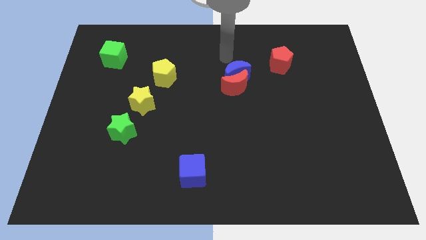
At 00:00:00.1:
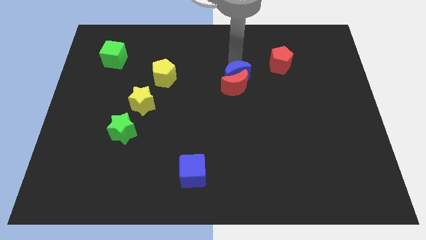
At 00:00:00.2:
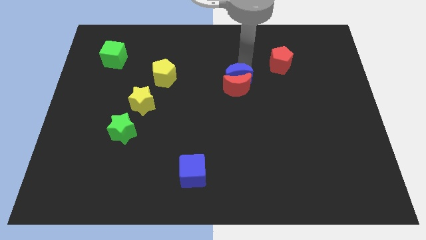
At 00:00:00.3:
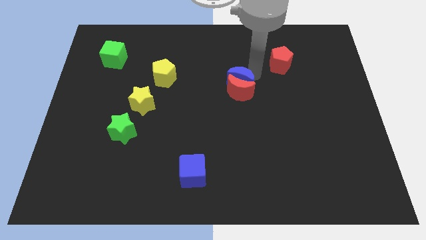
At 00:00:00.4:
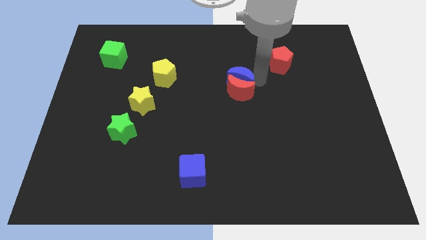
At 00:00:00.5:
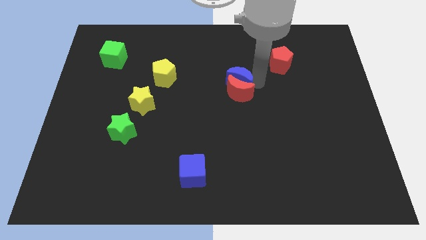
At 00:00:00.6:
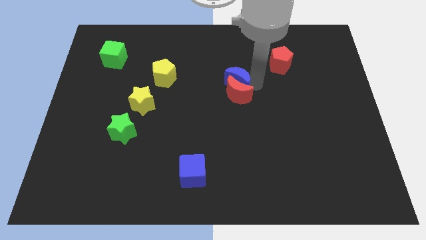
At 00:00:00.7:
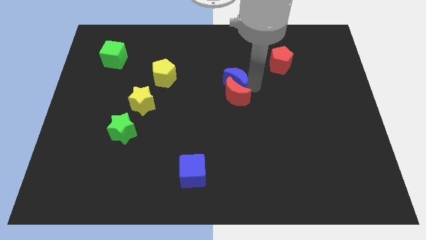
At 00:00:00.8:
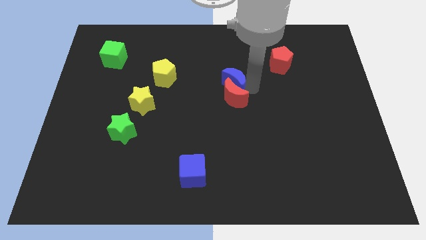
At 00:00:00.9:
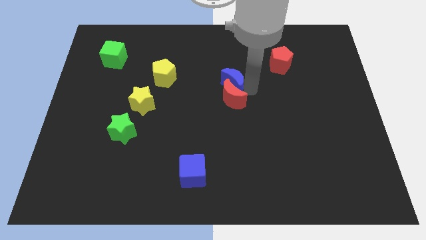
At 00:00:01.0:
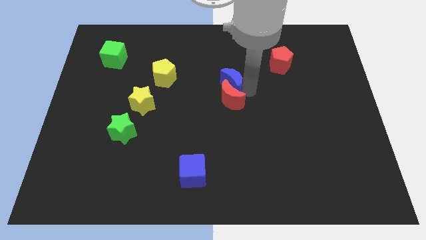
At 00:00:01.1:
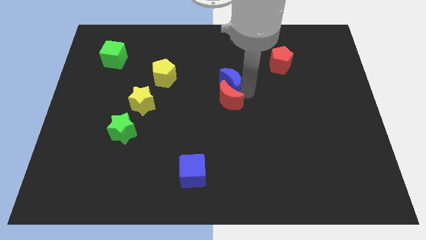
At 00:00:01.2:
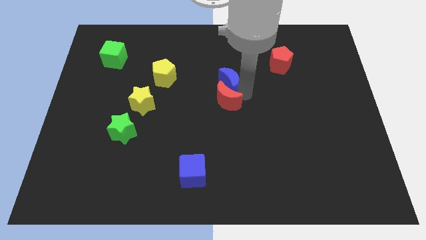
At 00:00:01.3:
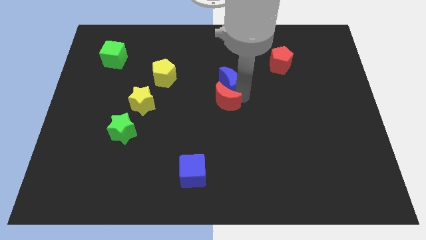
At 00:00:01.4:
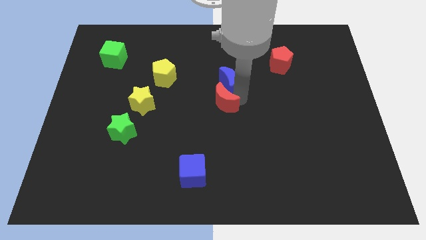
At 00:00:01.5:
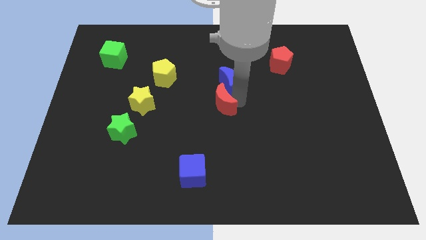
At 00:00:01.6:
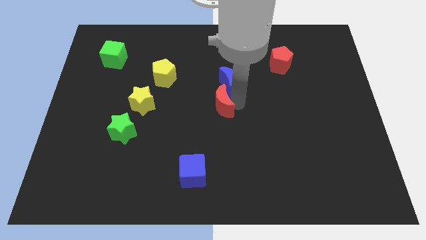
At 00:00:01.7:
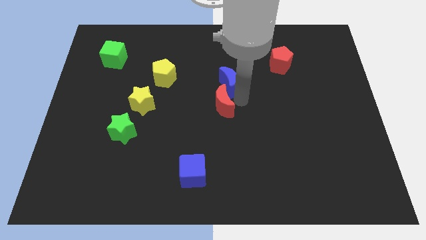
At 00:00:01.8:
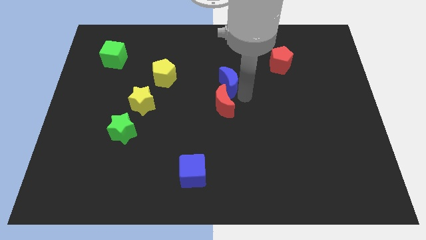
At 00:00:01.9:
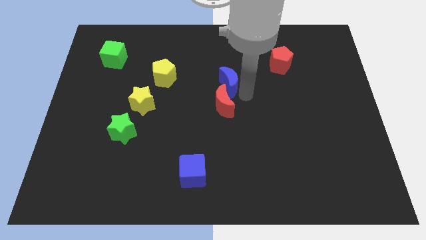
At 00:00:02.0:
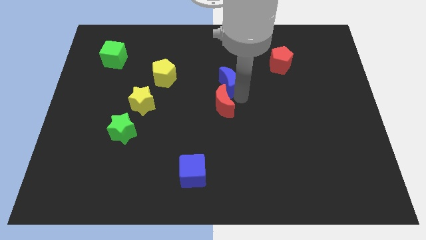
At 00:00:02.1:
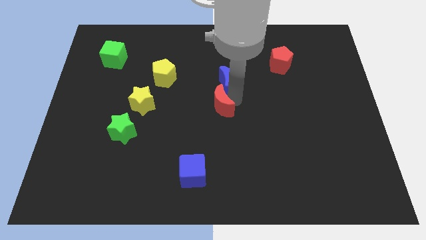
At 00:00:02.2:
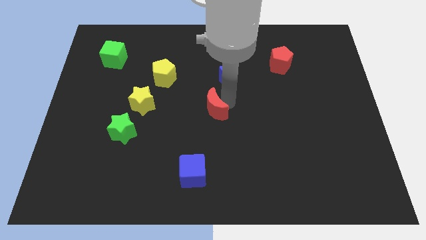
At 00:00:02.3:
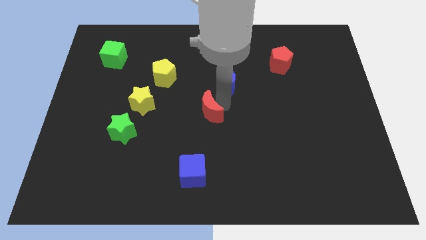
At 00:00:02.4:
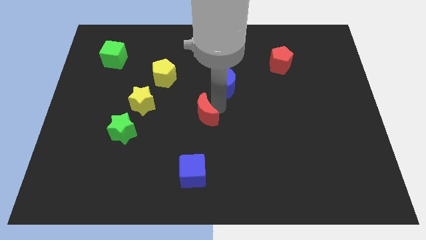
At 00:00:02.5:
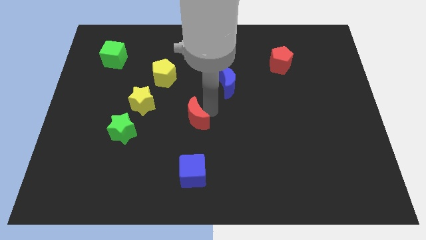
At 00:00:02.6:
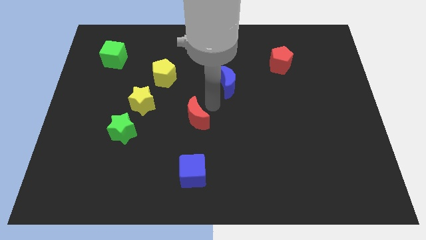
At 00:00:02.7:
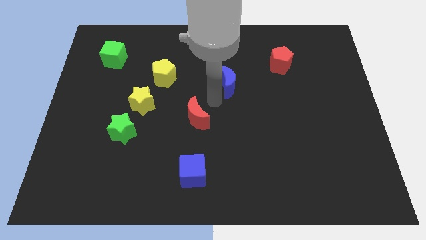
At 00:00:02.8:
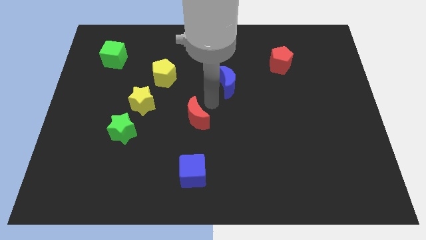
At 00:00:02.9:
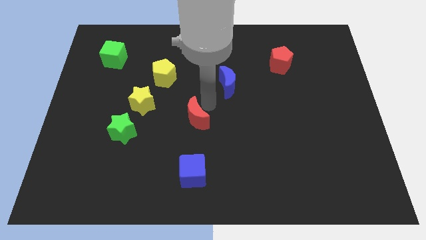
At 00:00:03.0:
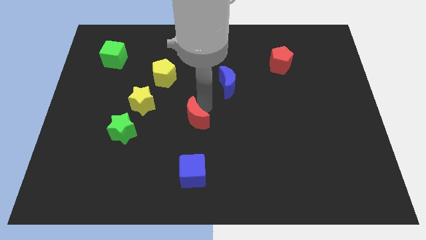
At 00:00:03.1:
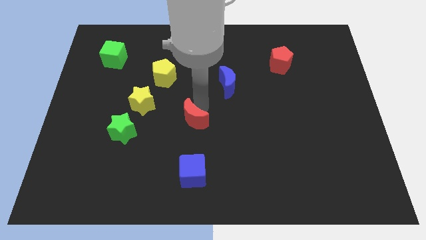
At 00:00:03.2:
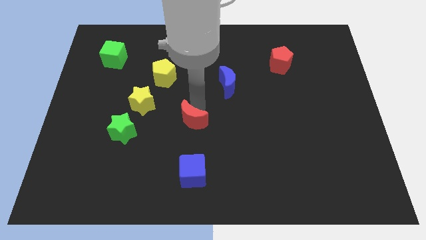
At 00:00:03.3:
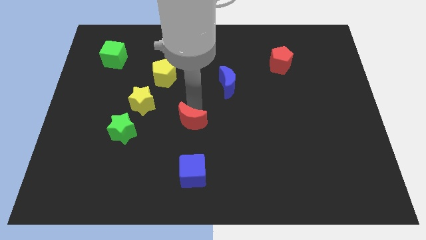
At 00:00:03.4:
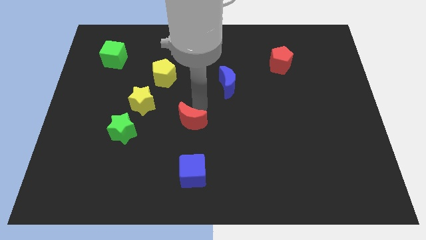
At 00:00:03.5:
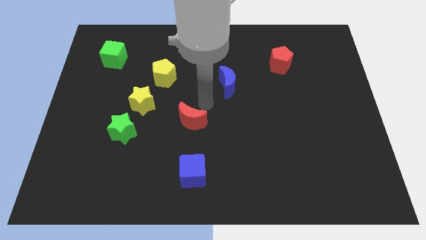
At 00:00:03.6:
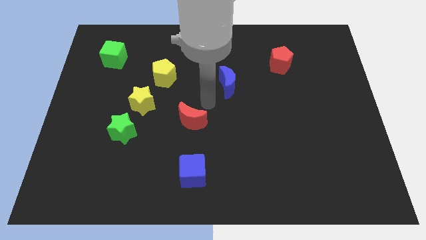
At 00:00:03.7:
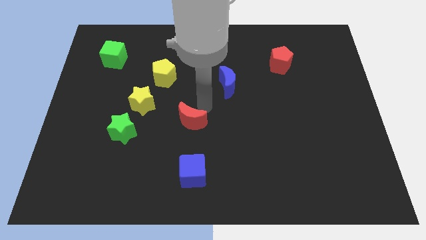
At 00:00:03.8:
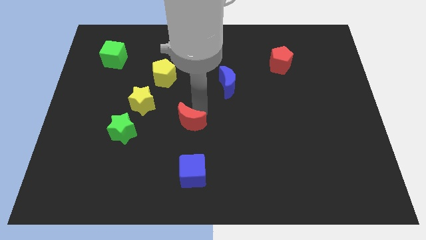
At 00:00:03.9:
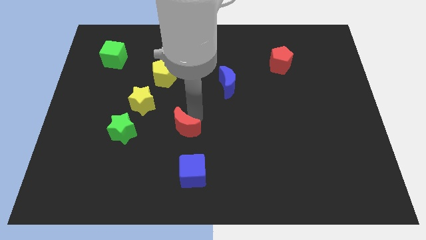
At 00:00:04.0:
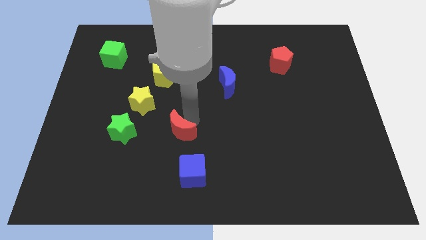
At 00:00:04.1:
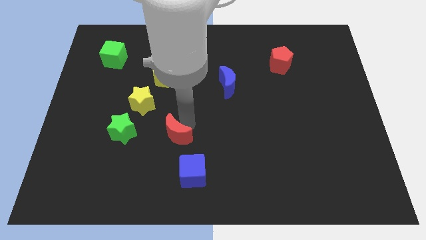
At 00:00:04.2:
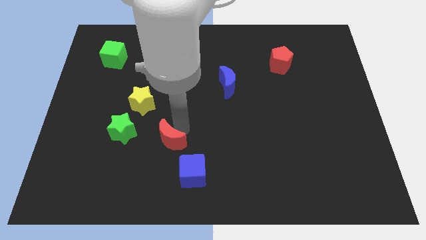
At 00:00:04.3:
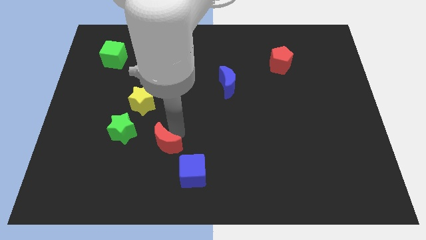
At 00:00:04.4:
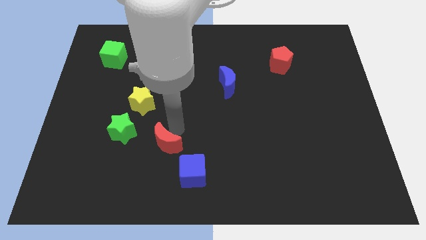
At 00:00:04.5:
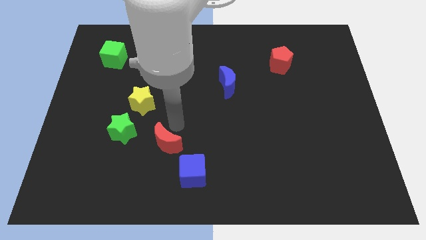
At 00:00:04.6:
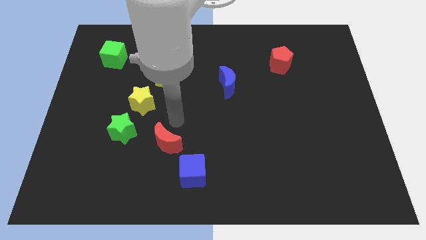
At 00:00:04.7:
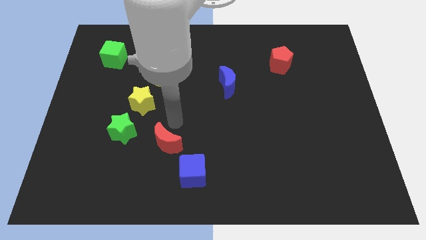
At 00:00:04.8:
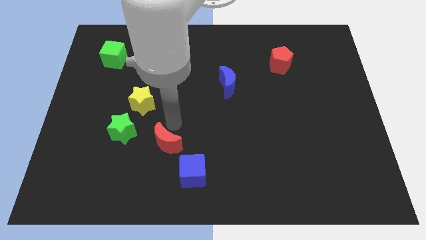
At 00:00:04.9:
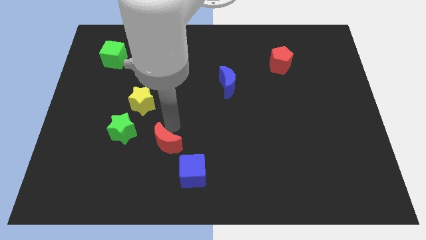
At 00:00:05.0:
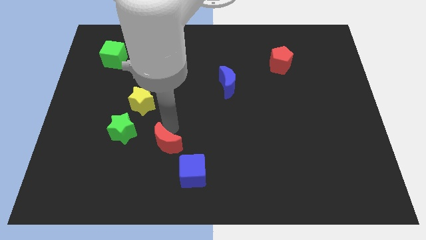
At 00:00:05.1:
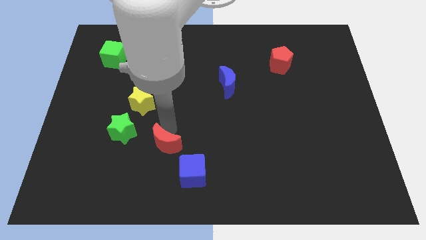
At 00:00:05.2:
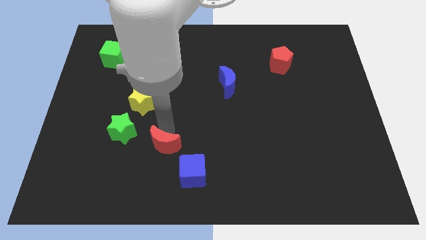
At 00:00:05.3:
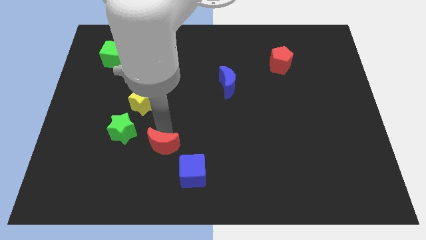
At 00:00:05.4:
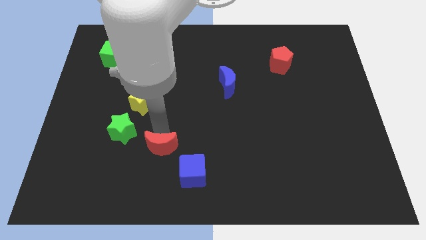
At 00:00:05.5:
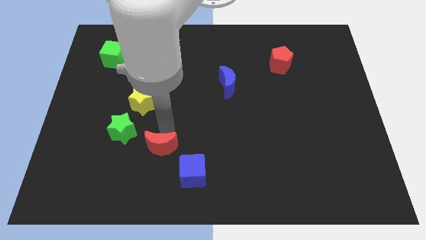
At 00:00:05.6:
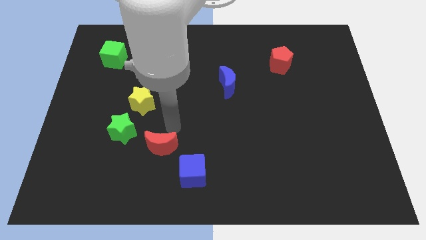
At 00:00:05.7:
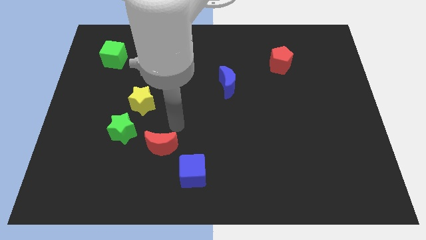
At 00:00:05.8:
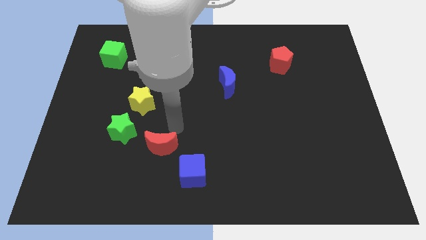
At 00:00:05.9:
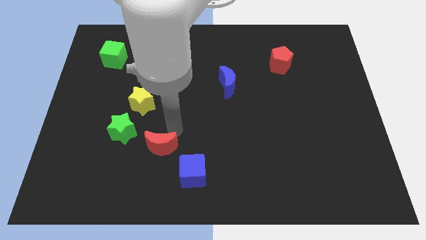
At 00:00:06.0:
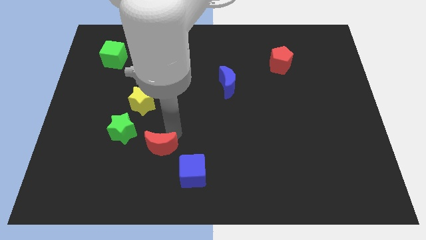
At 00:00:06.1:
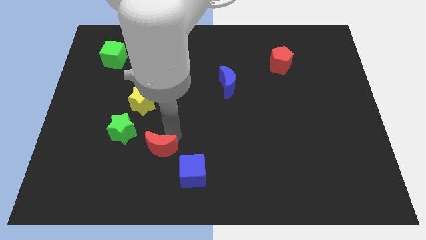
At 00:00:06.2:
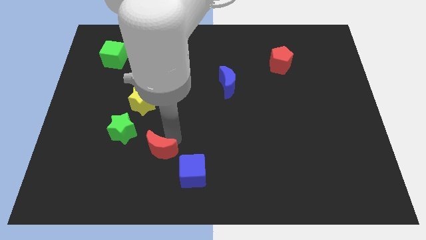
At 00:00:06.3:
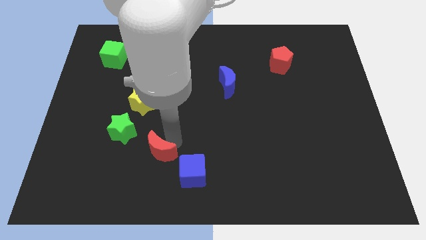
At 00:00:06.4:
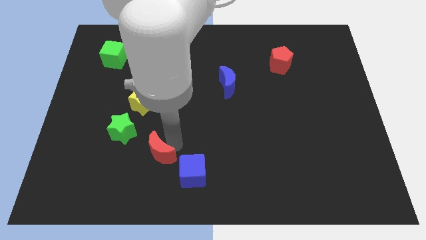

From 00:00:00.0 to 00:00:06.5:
push the red moon to the left side of the blue cube
